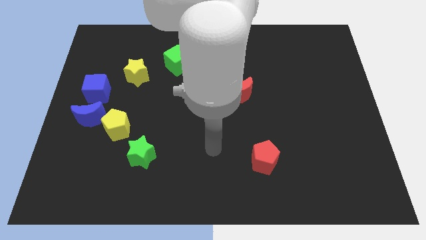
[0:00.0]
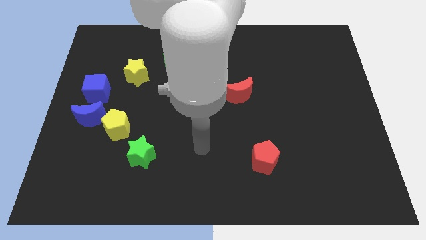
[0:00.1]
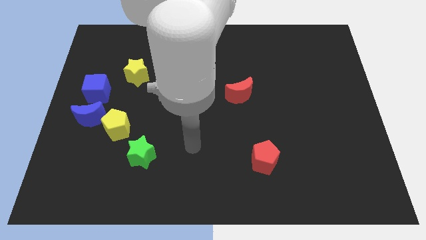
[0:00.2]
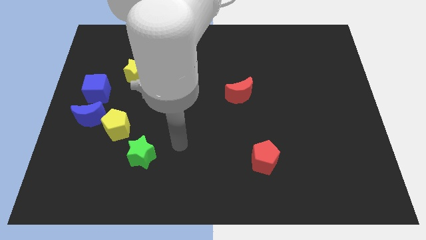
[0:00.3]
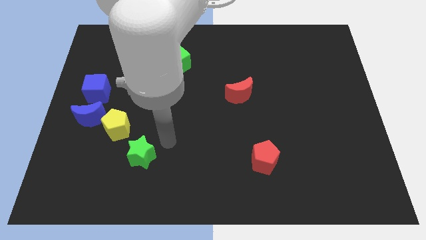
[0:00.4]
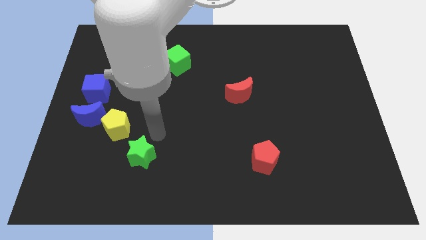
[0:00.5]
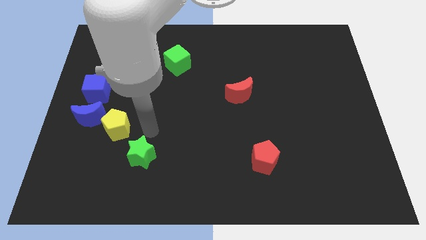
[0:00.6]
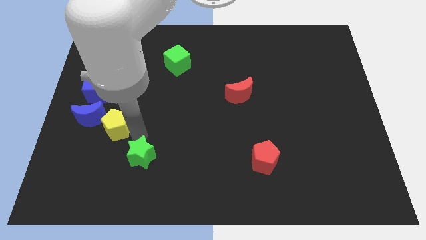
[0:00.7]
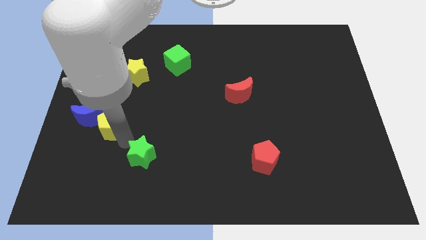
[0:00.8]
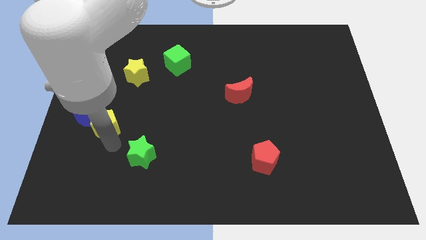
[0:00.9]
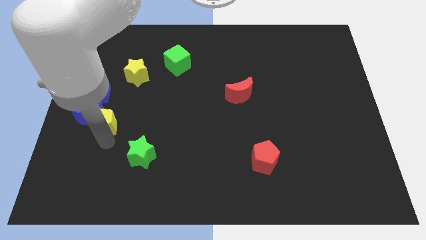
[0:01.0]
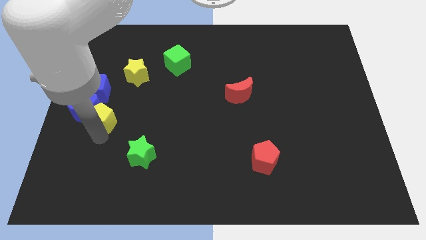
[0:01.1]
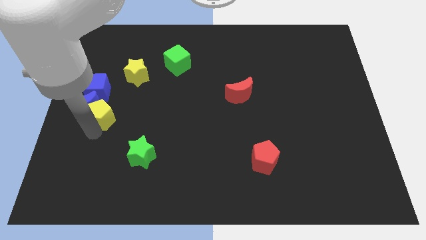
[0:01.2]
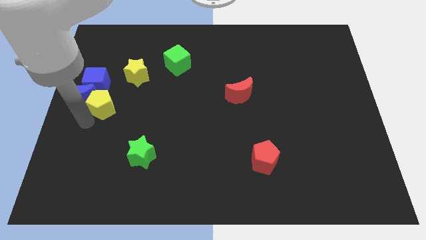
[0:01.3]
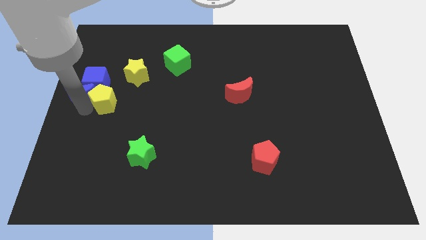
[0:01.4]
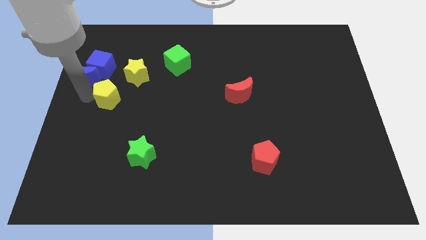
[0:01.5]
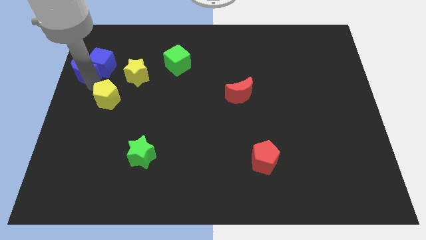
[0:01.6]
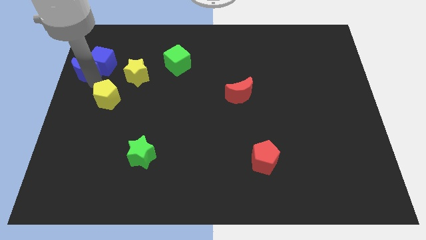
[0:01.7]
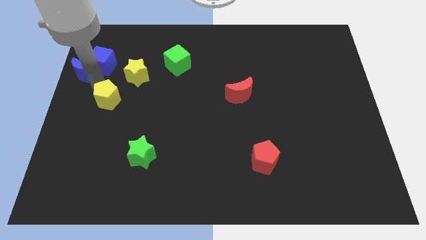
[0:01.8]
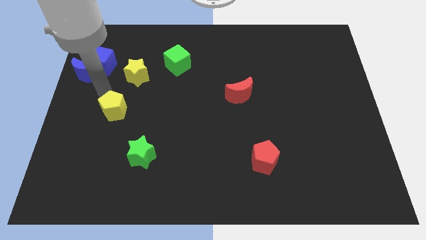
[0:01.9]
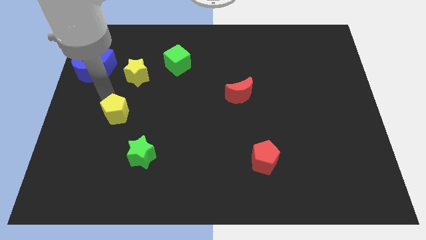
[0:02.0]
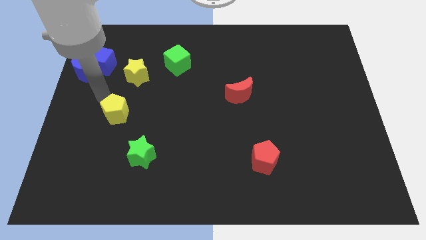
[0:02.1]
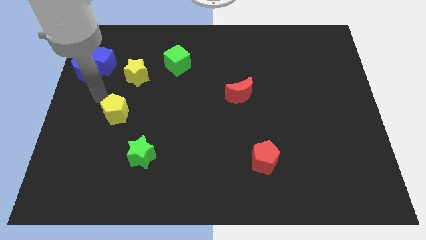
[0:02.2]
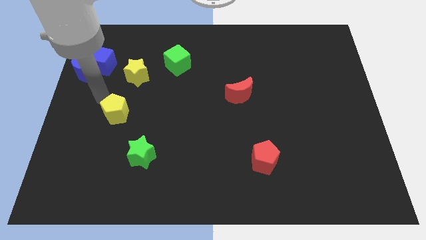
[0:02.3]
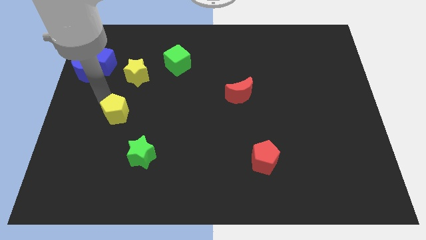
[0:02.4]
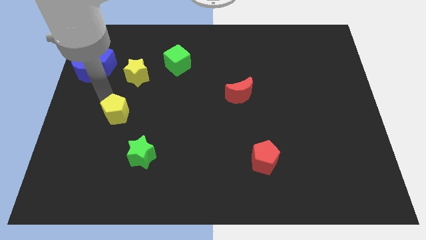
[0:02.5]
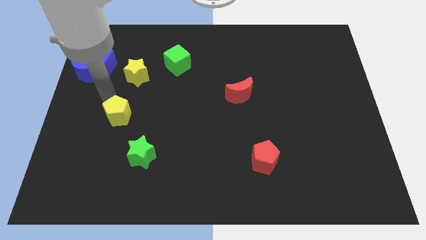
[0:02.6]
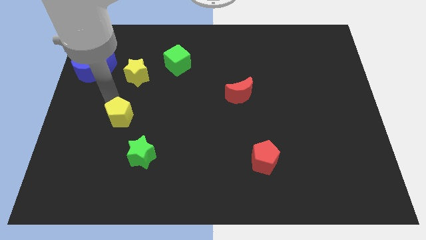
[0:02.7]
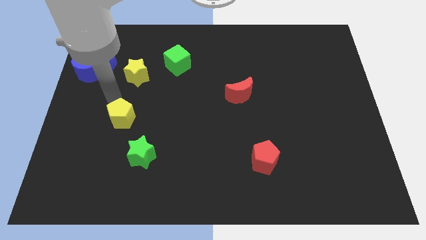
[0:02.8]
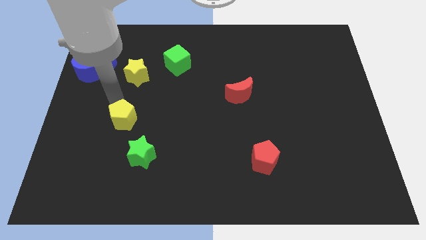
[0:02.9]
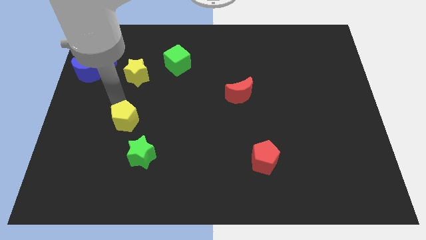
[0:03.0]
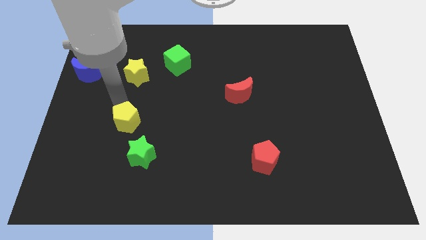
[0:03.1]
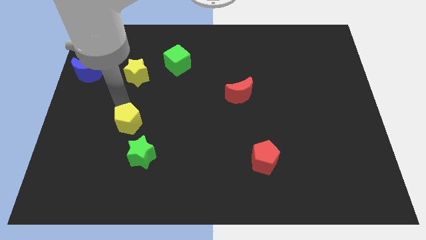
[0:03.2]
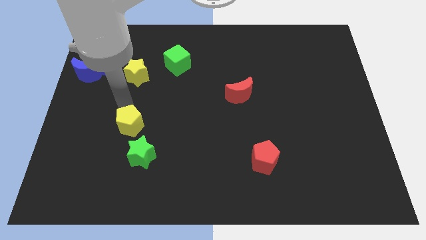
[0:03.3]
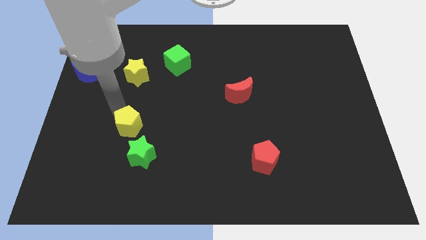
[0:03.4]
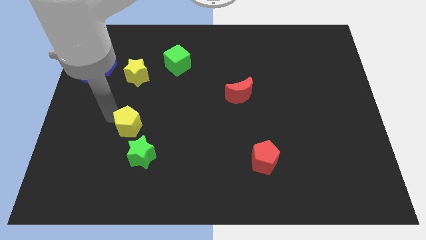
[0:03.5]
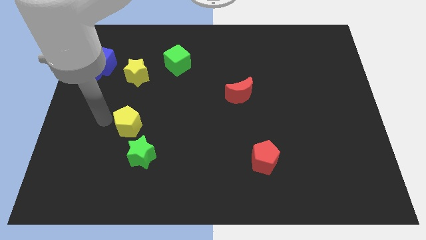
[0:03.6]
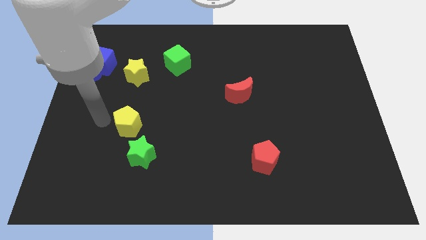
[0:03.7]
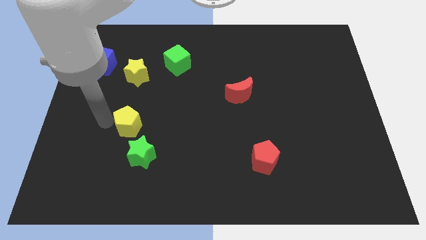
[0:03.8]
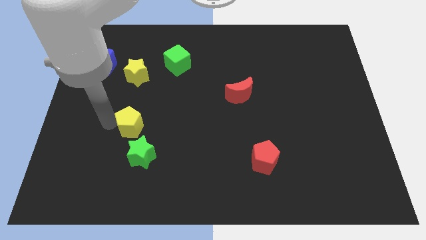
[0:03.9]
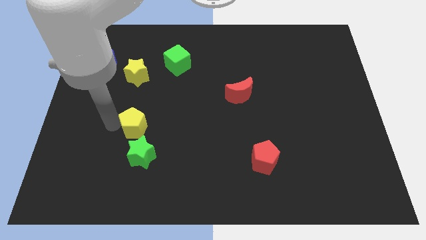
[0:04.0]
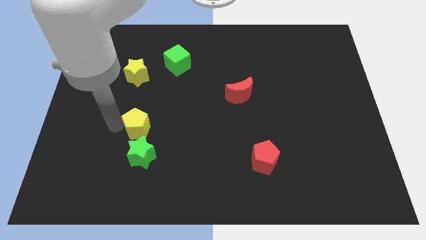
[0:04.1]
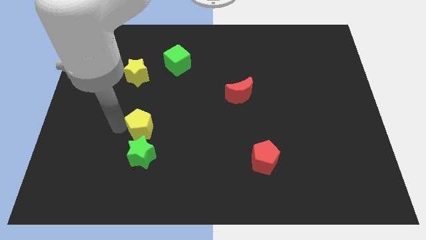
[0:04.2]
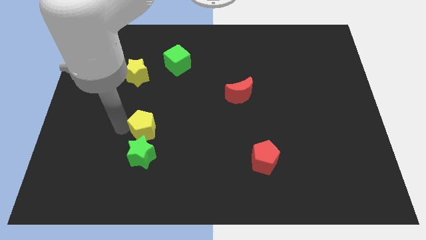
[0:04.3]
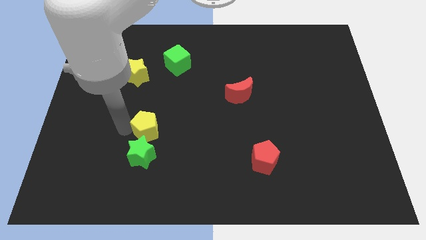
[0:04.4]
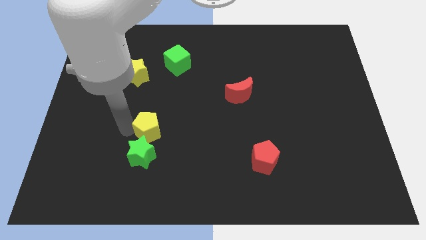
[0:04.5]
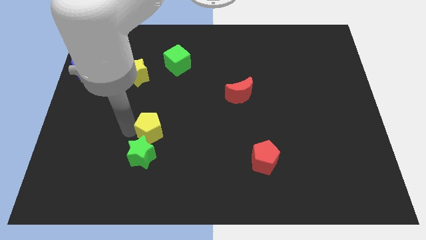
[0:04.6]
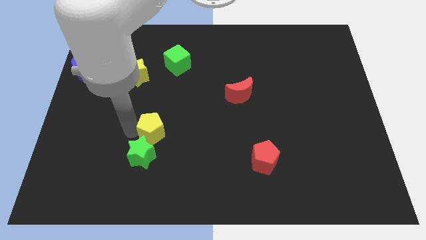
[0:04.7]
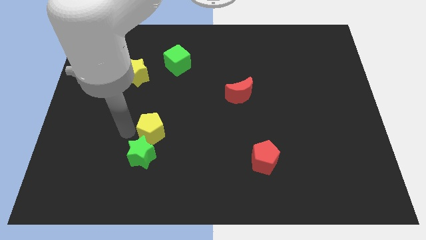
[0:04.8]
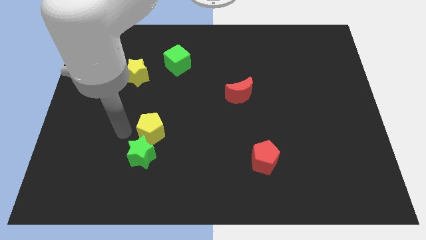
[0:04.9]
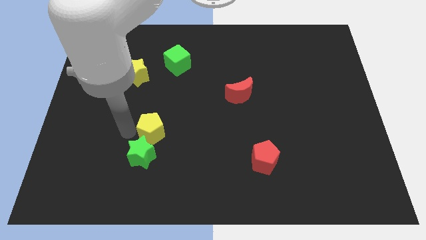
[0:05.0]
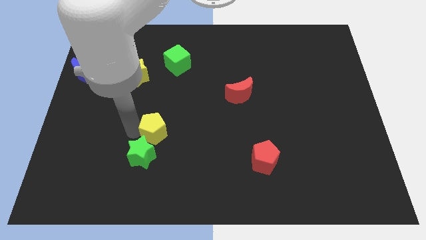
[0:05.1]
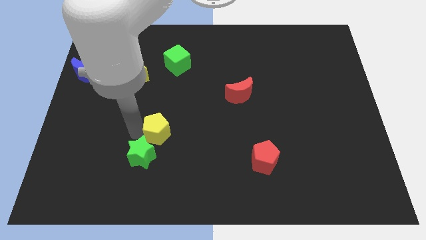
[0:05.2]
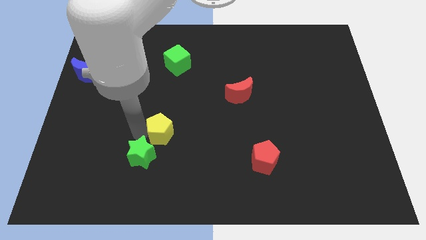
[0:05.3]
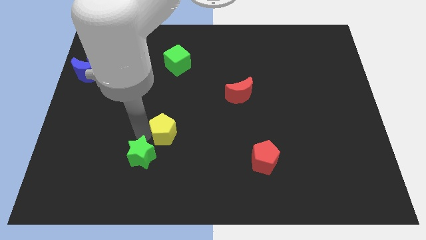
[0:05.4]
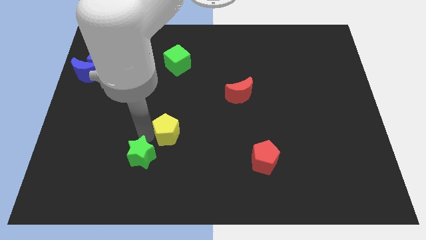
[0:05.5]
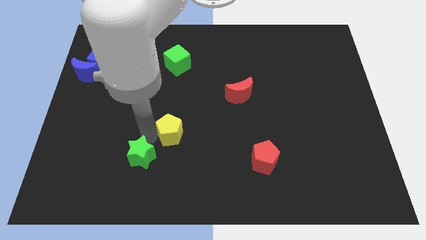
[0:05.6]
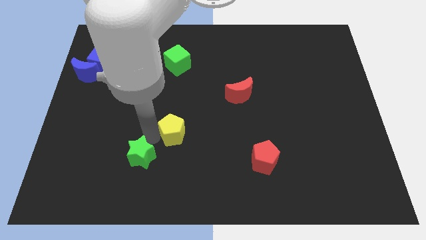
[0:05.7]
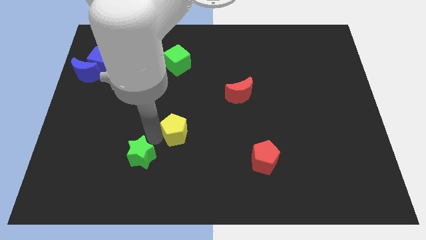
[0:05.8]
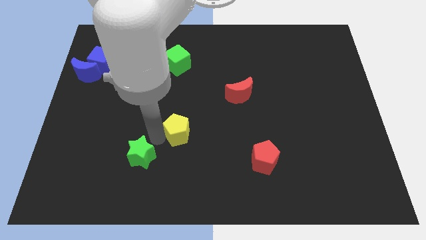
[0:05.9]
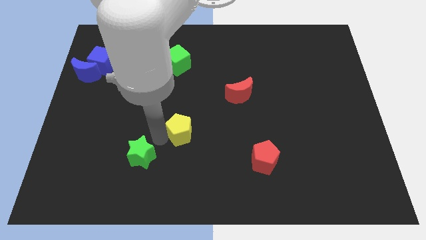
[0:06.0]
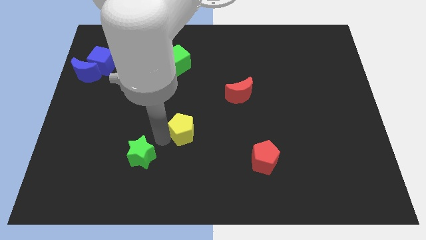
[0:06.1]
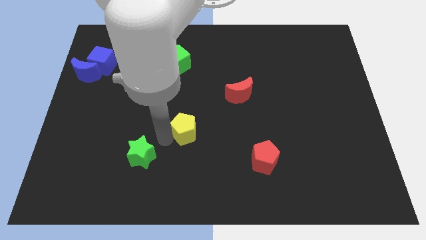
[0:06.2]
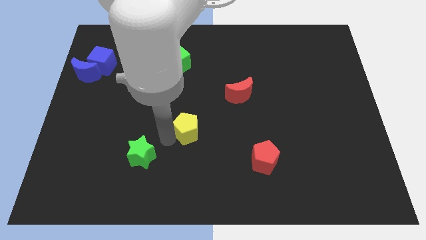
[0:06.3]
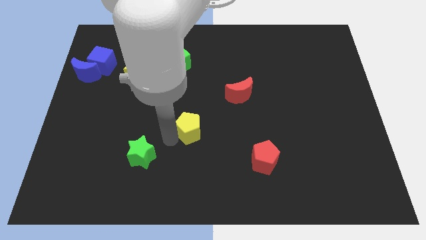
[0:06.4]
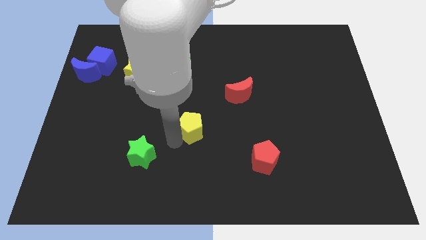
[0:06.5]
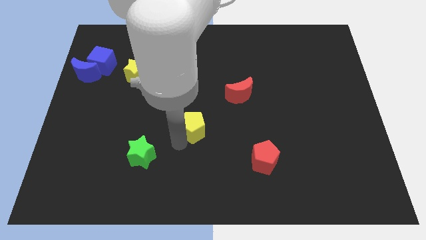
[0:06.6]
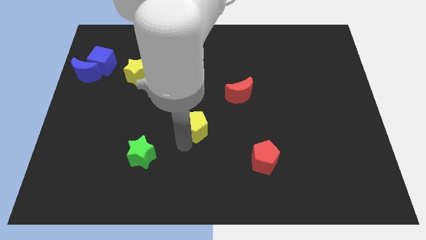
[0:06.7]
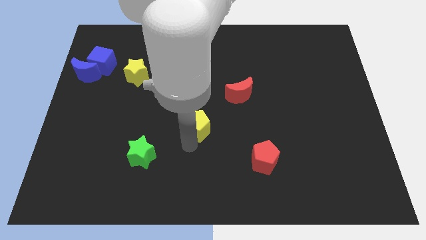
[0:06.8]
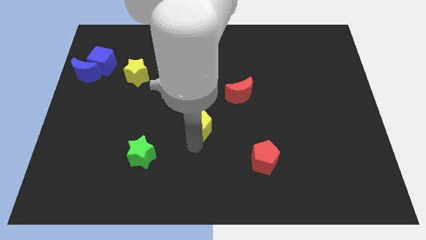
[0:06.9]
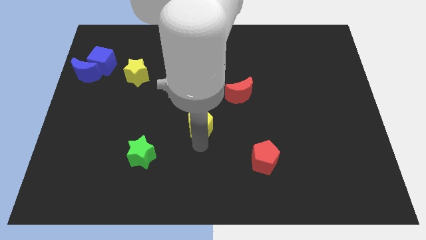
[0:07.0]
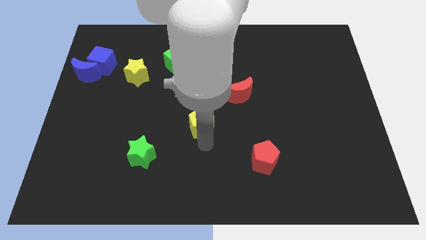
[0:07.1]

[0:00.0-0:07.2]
move the yellow pentagon to the bottom left of the red moon

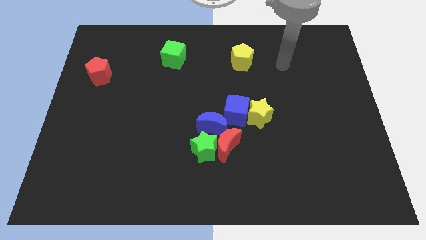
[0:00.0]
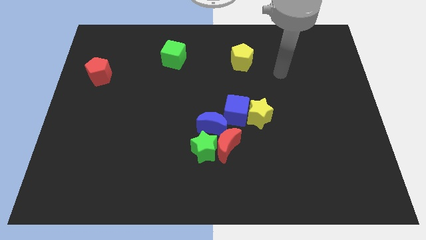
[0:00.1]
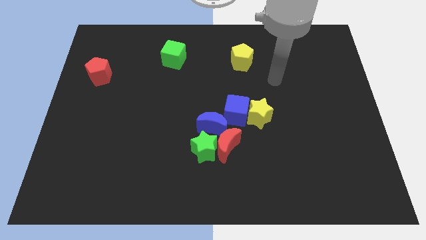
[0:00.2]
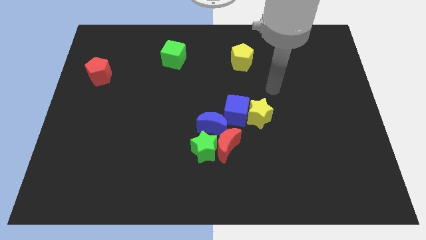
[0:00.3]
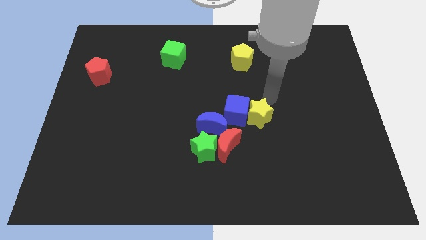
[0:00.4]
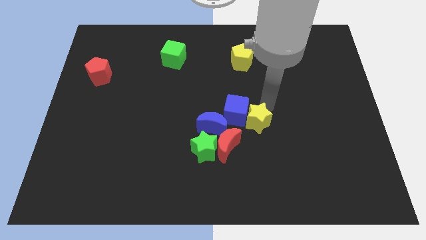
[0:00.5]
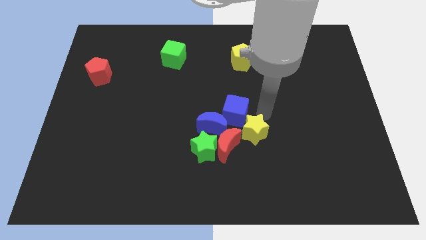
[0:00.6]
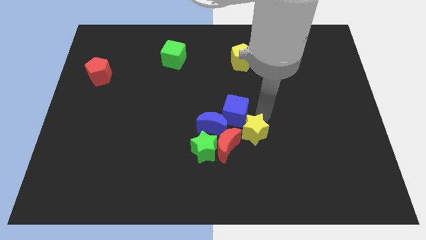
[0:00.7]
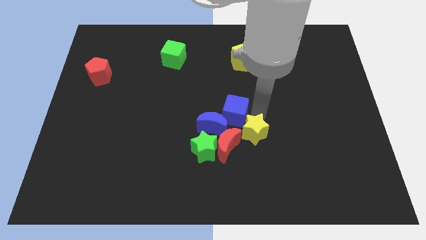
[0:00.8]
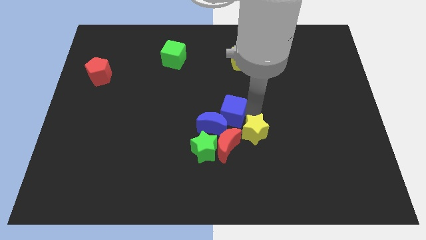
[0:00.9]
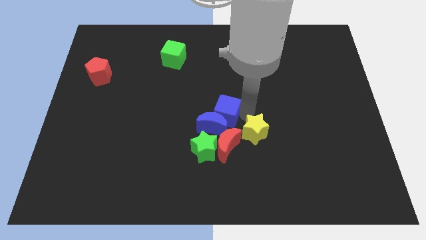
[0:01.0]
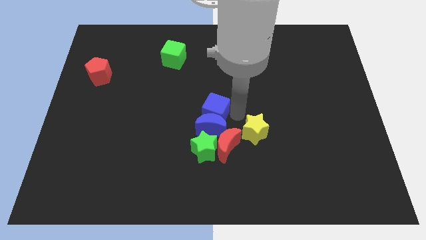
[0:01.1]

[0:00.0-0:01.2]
push the blue cube to the top left of the blue moon
